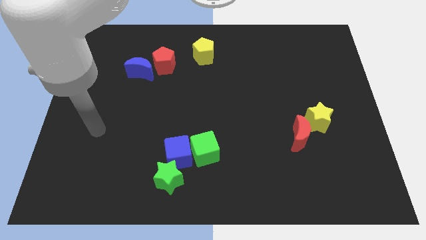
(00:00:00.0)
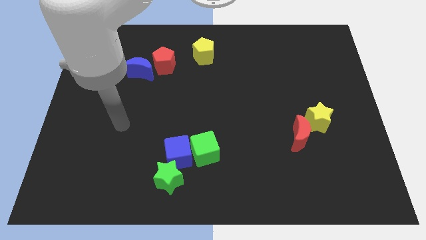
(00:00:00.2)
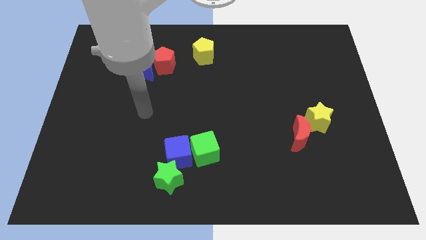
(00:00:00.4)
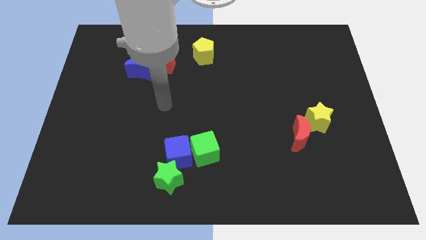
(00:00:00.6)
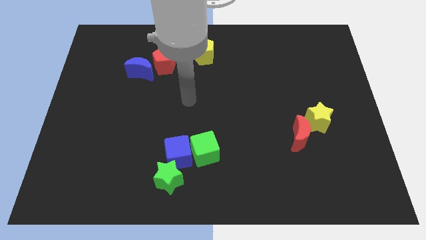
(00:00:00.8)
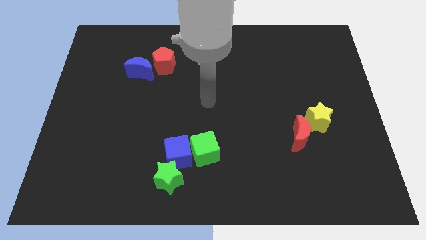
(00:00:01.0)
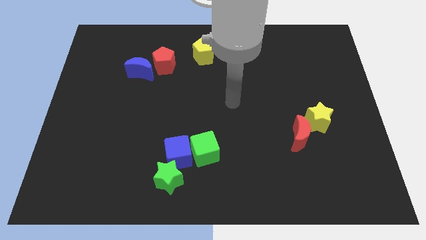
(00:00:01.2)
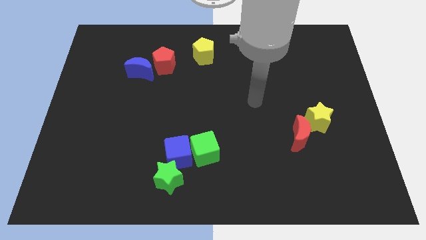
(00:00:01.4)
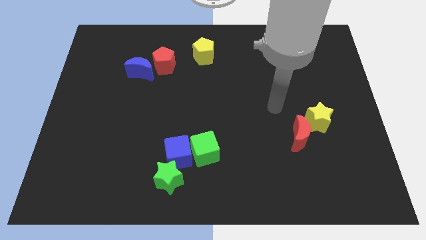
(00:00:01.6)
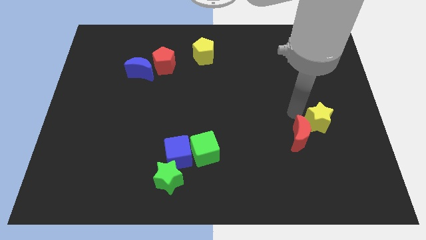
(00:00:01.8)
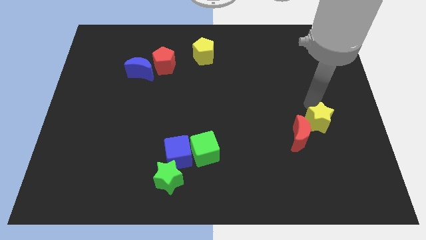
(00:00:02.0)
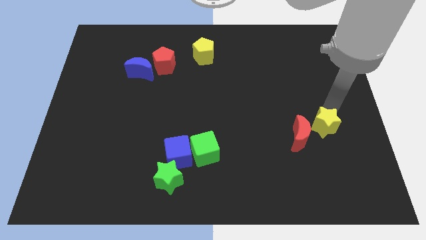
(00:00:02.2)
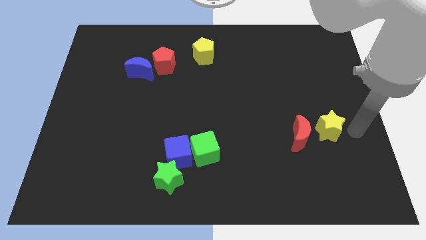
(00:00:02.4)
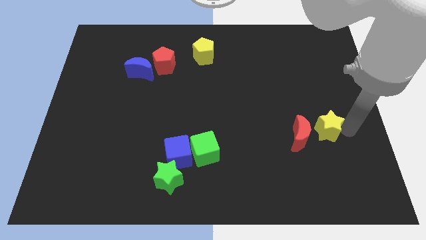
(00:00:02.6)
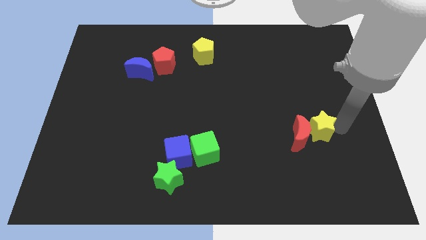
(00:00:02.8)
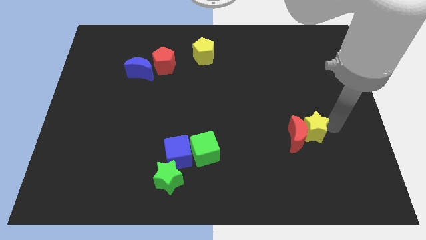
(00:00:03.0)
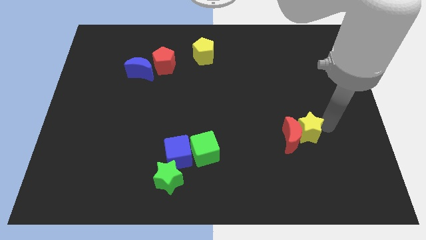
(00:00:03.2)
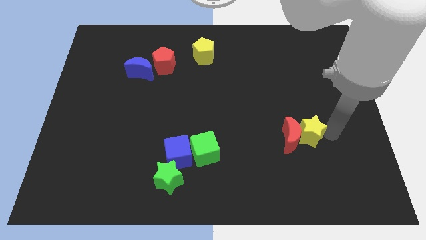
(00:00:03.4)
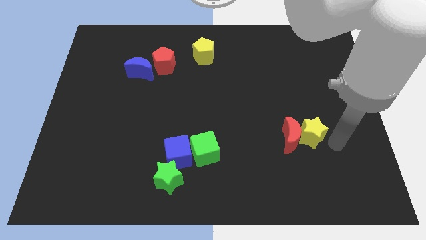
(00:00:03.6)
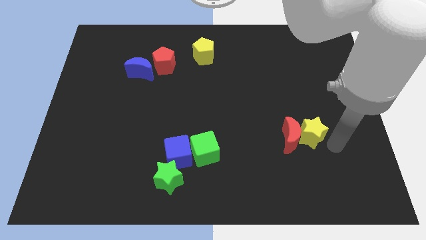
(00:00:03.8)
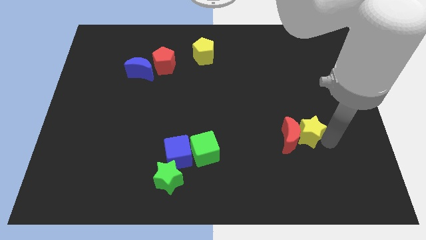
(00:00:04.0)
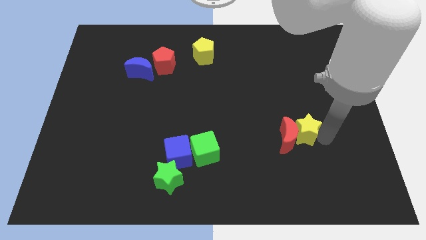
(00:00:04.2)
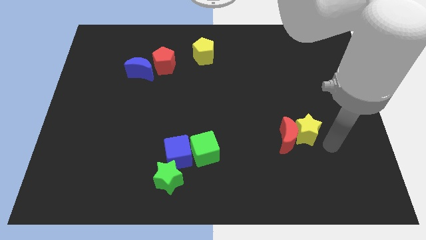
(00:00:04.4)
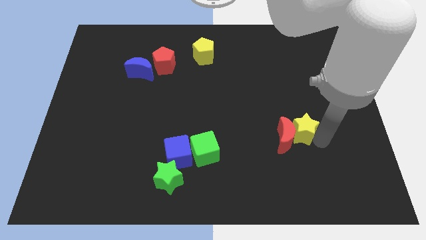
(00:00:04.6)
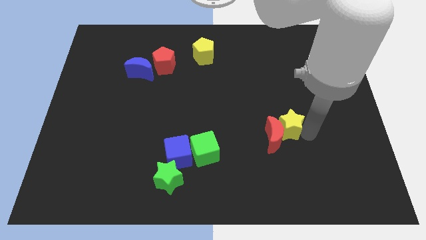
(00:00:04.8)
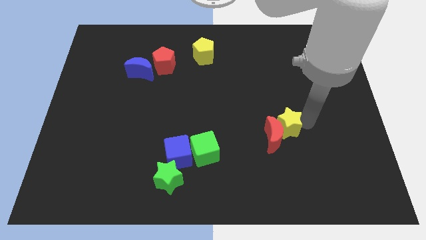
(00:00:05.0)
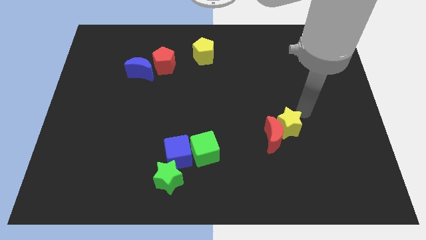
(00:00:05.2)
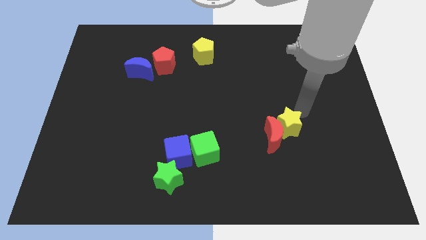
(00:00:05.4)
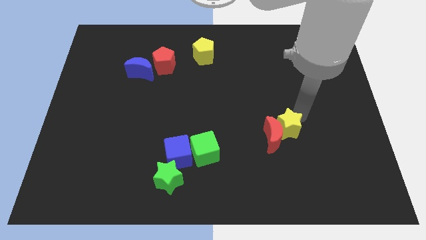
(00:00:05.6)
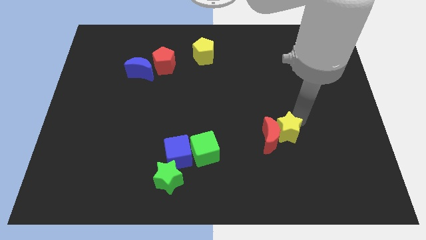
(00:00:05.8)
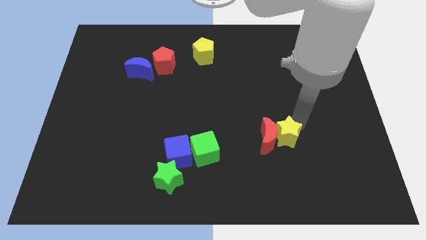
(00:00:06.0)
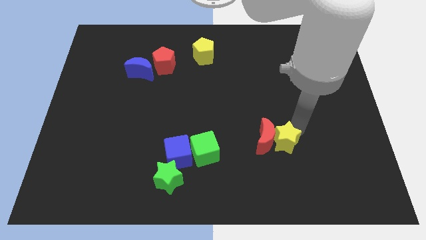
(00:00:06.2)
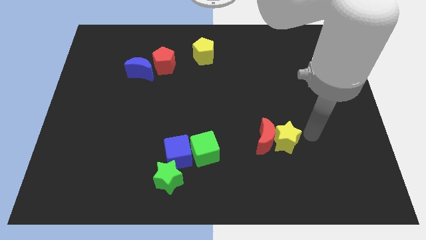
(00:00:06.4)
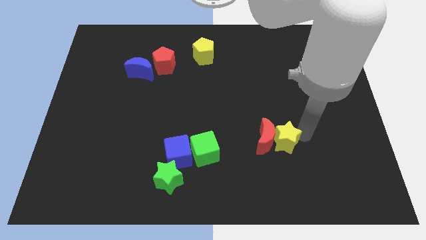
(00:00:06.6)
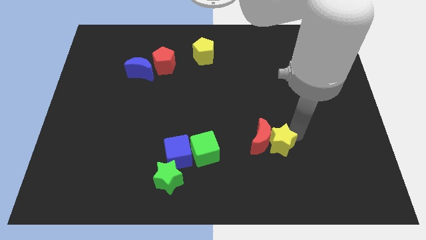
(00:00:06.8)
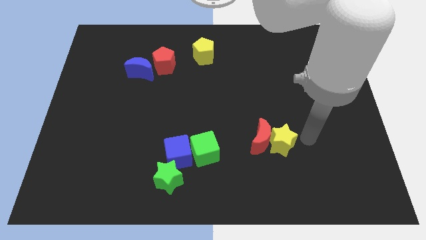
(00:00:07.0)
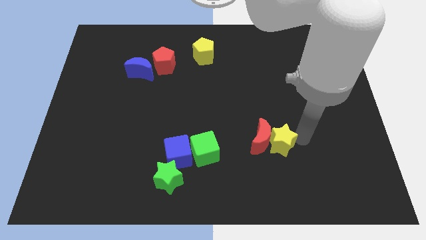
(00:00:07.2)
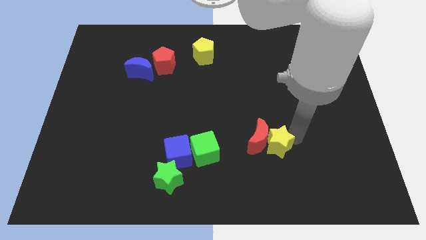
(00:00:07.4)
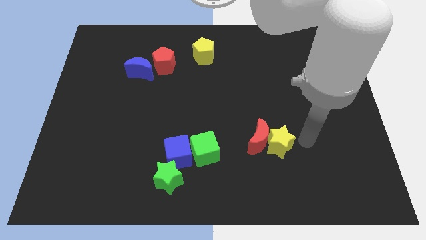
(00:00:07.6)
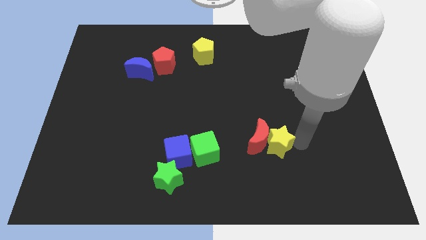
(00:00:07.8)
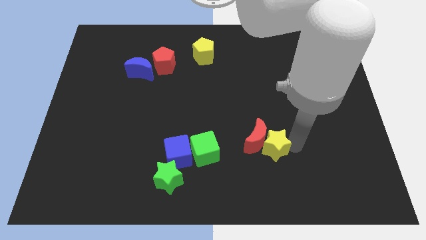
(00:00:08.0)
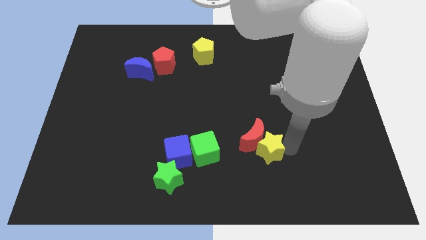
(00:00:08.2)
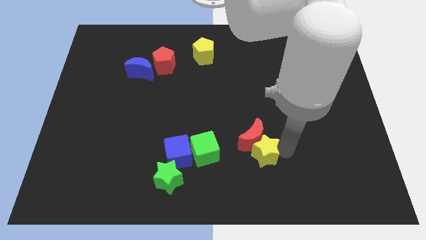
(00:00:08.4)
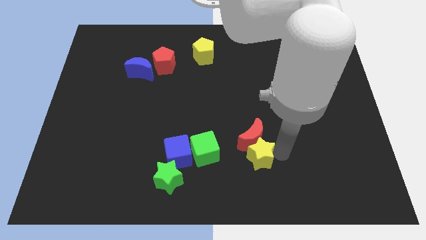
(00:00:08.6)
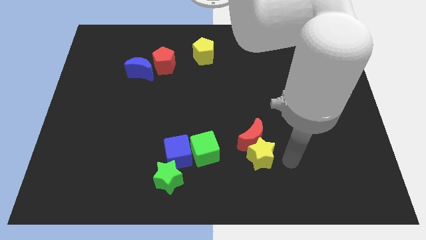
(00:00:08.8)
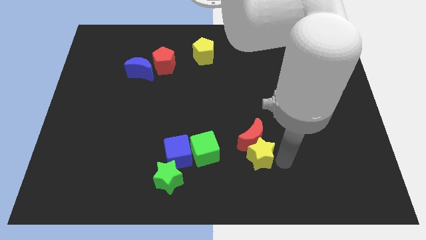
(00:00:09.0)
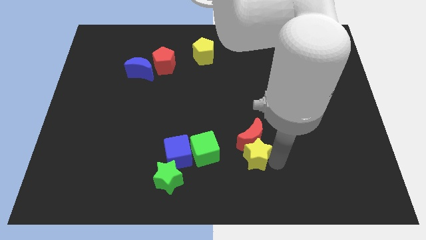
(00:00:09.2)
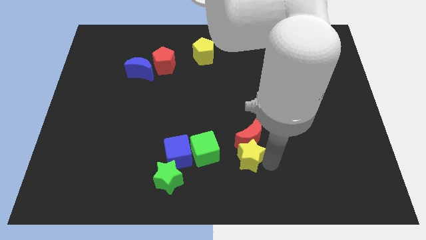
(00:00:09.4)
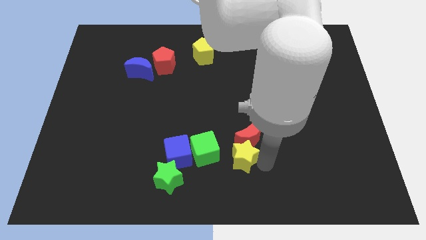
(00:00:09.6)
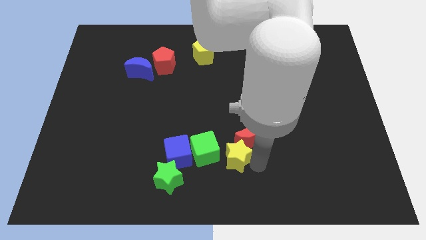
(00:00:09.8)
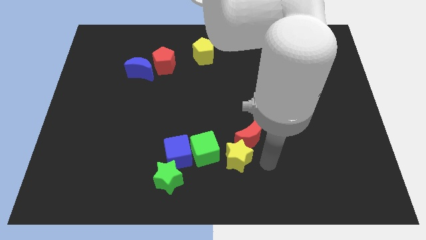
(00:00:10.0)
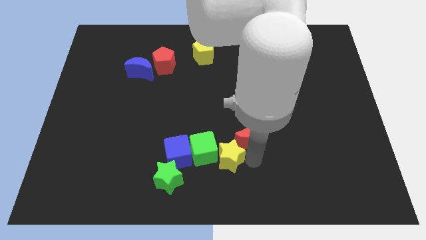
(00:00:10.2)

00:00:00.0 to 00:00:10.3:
move the yellow star to the green cube

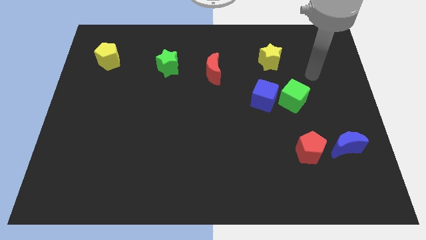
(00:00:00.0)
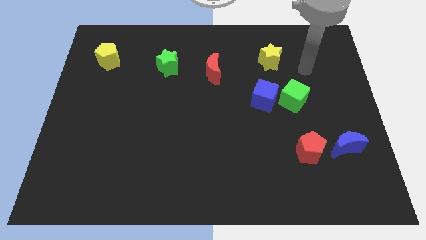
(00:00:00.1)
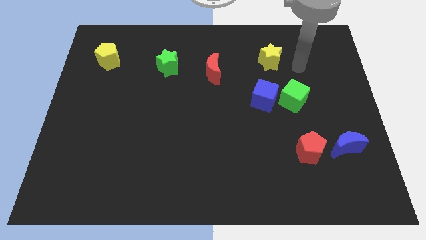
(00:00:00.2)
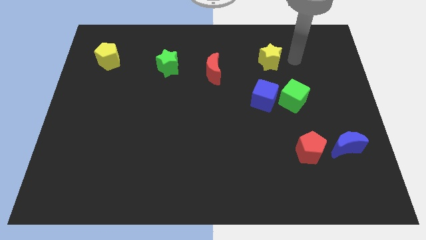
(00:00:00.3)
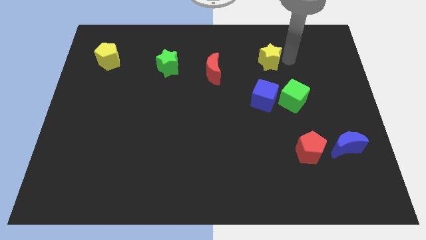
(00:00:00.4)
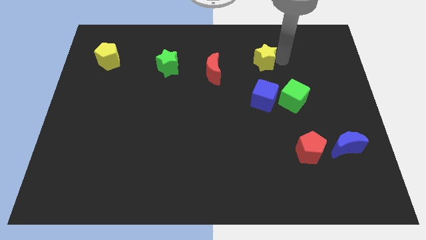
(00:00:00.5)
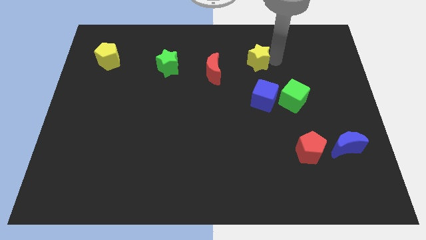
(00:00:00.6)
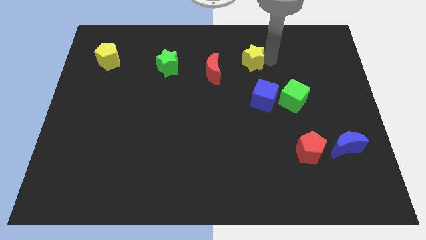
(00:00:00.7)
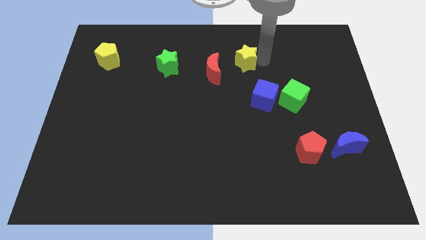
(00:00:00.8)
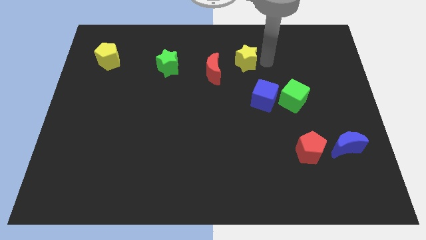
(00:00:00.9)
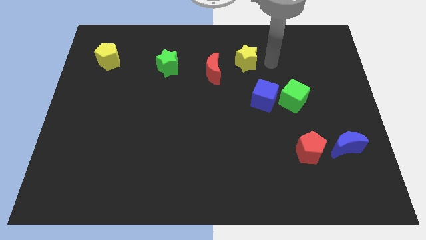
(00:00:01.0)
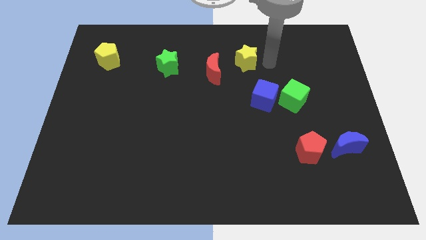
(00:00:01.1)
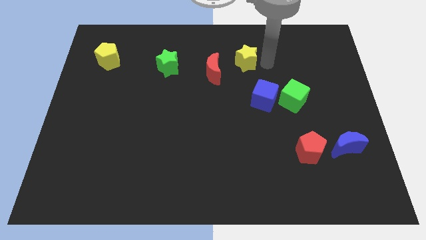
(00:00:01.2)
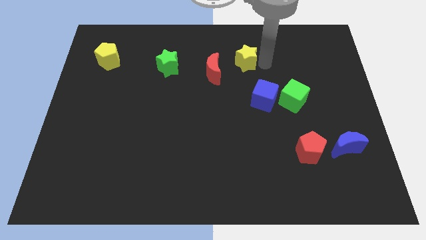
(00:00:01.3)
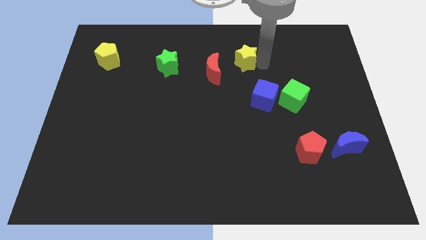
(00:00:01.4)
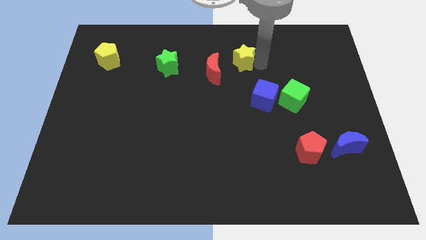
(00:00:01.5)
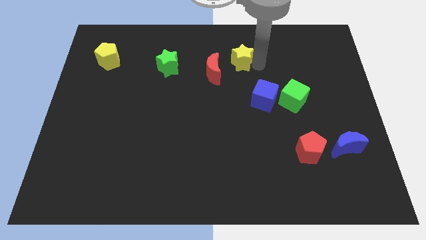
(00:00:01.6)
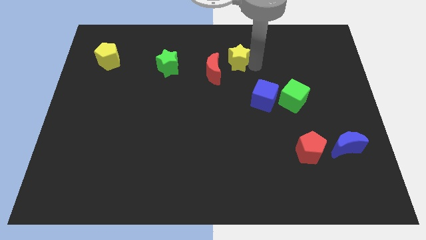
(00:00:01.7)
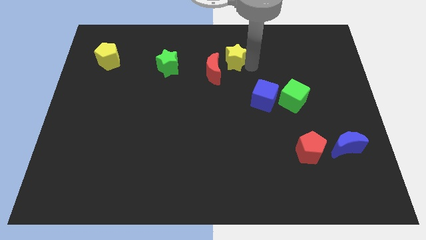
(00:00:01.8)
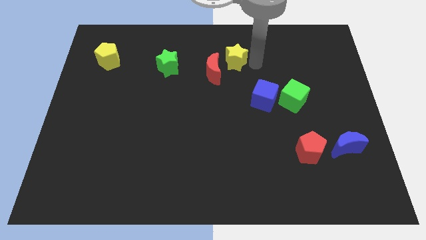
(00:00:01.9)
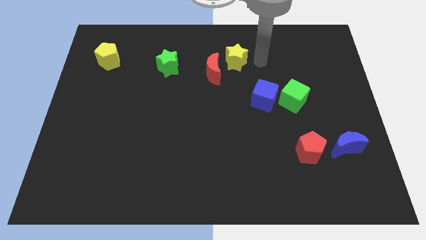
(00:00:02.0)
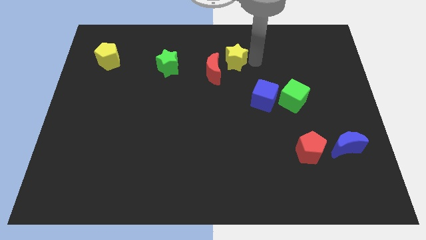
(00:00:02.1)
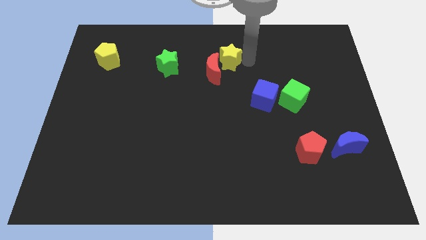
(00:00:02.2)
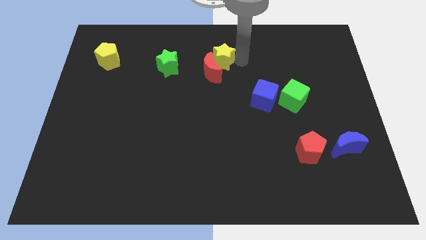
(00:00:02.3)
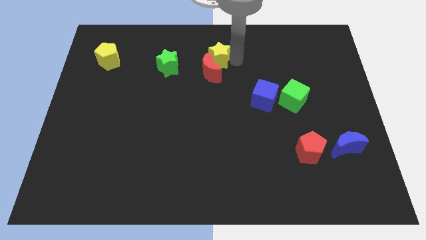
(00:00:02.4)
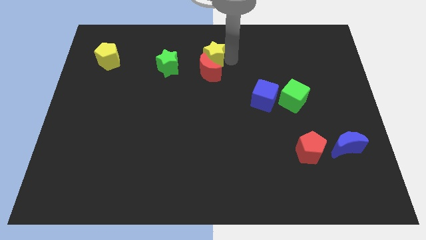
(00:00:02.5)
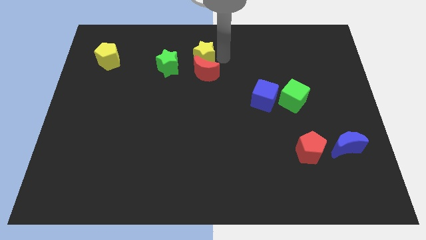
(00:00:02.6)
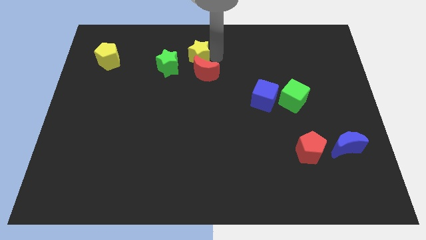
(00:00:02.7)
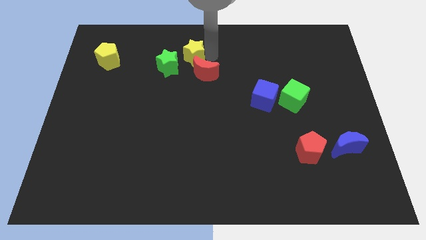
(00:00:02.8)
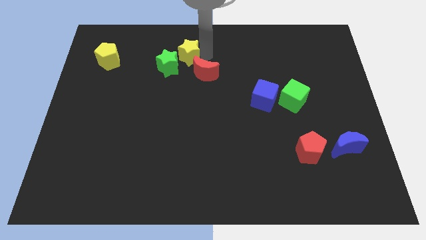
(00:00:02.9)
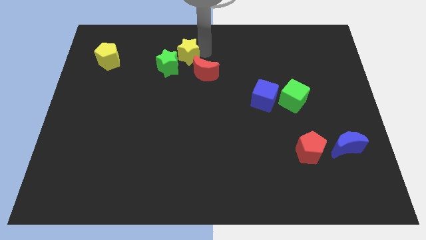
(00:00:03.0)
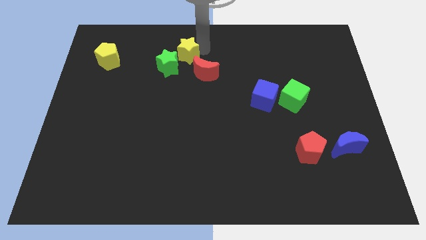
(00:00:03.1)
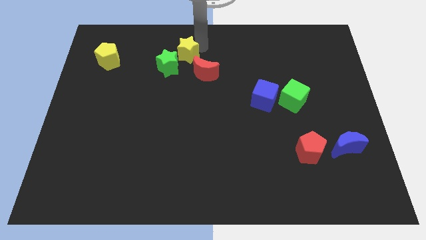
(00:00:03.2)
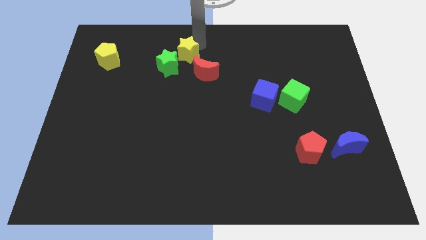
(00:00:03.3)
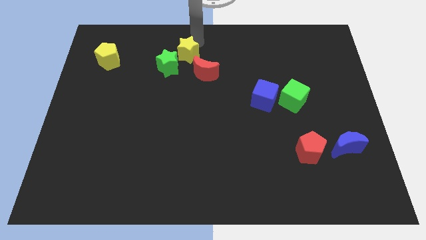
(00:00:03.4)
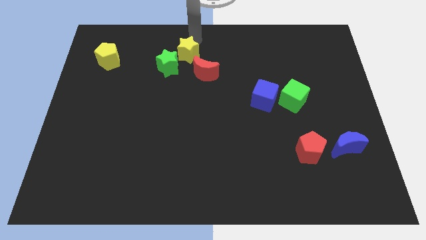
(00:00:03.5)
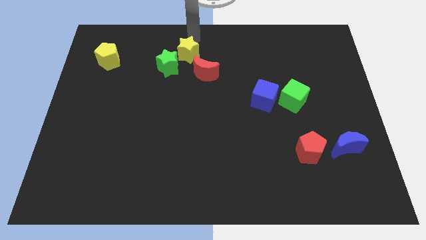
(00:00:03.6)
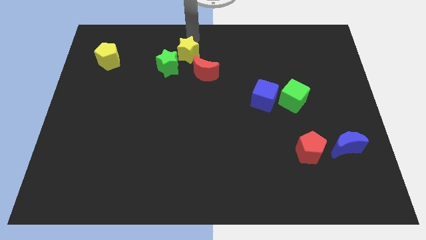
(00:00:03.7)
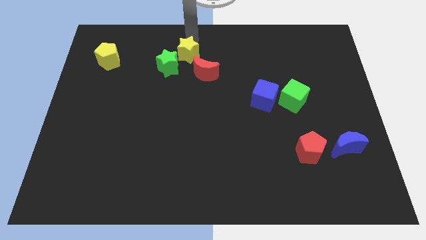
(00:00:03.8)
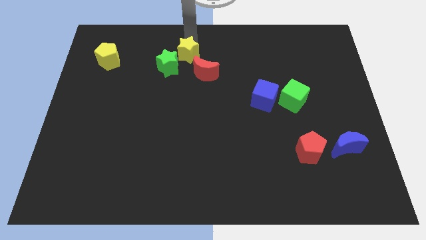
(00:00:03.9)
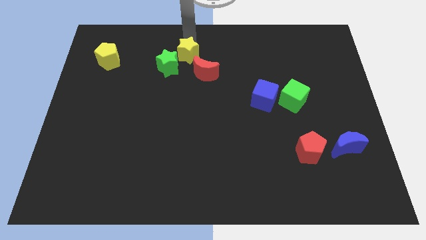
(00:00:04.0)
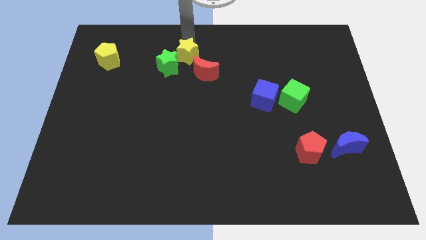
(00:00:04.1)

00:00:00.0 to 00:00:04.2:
push the yellow star next to the green star
